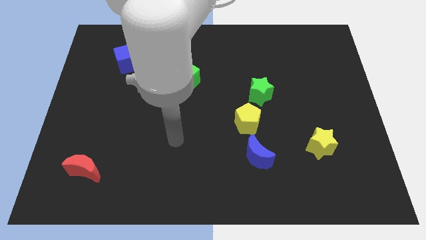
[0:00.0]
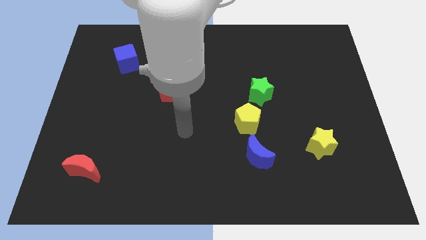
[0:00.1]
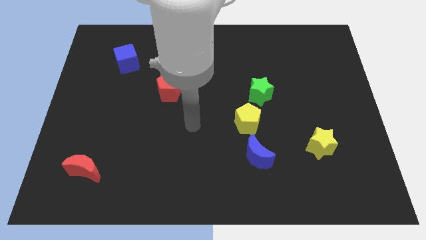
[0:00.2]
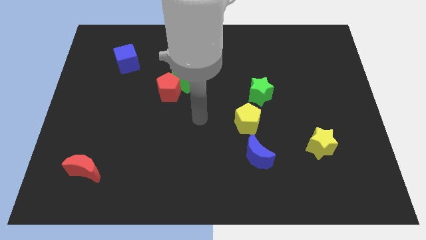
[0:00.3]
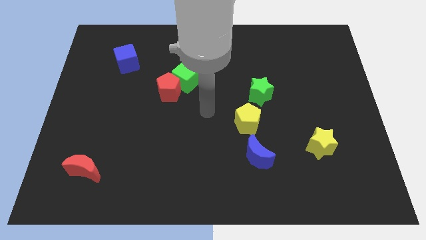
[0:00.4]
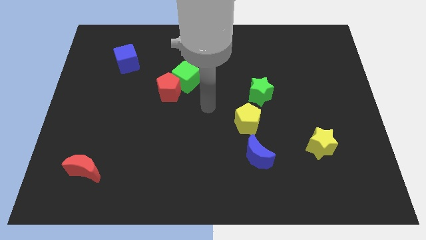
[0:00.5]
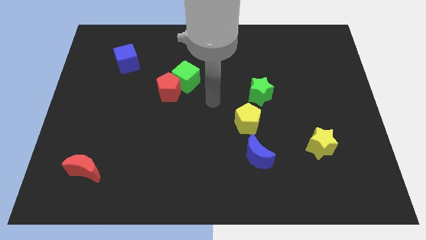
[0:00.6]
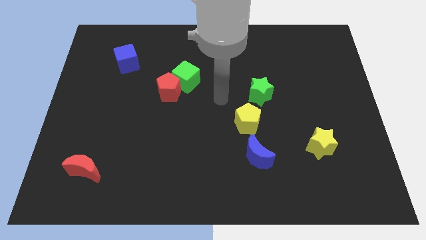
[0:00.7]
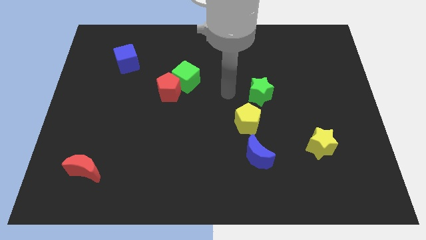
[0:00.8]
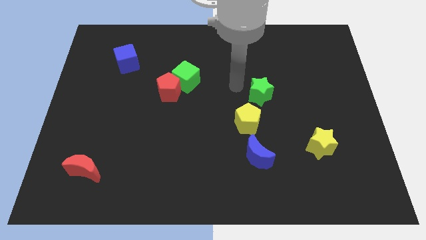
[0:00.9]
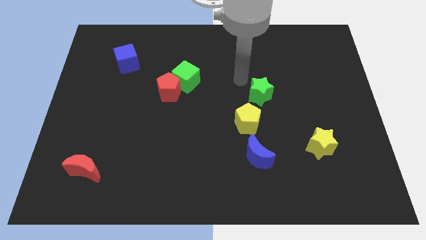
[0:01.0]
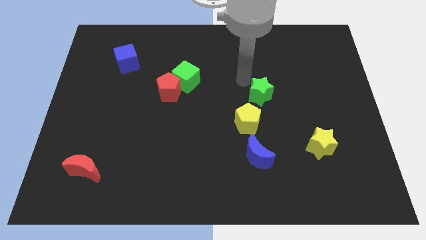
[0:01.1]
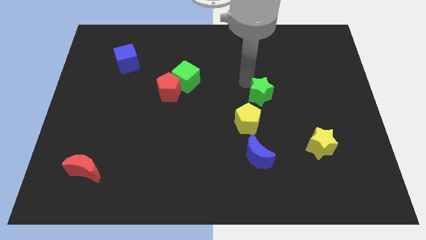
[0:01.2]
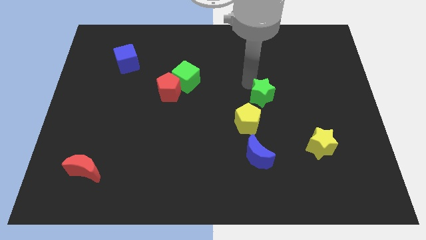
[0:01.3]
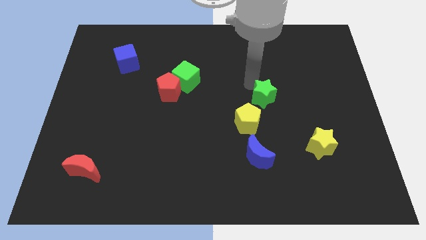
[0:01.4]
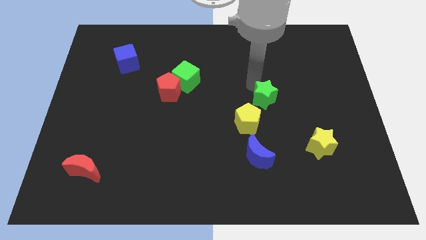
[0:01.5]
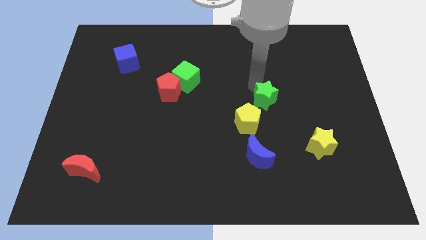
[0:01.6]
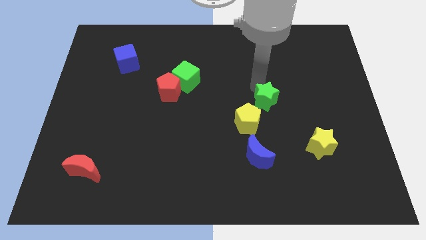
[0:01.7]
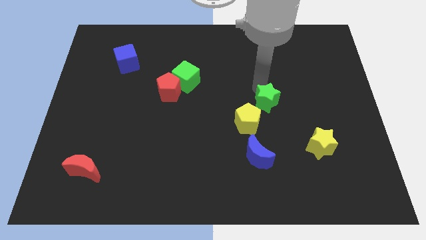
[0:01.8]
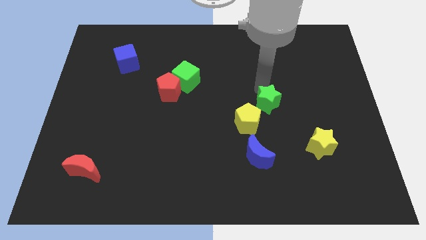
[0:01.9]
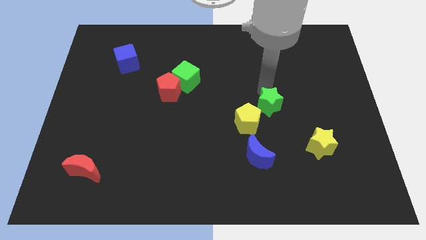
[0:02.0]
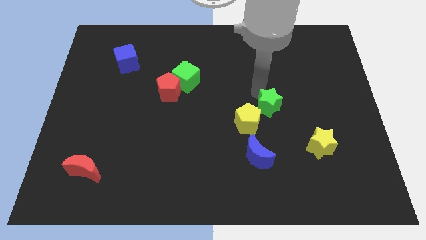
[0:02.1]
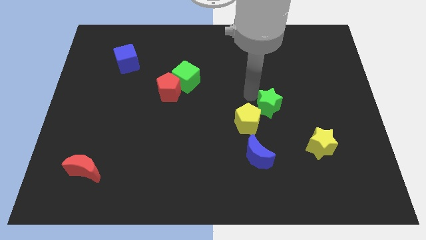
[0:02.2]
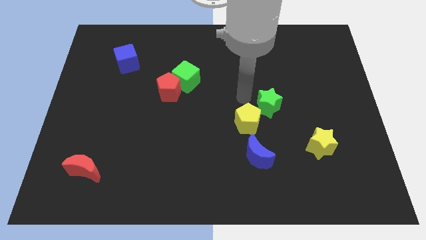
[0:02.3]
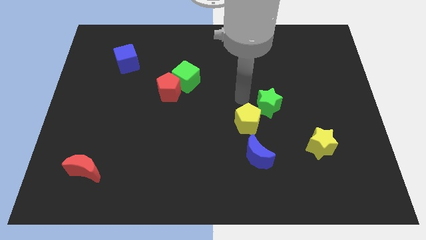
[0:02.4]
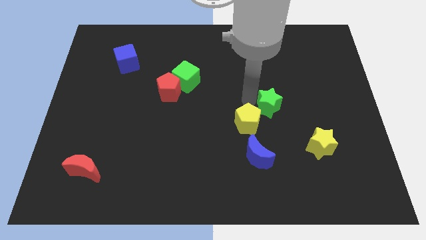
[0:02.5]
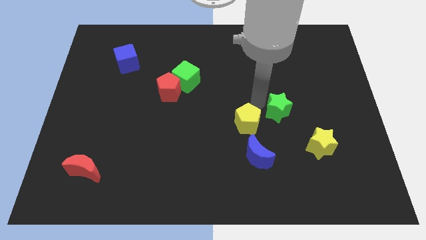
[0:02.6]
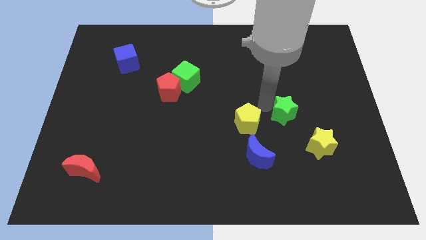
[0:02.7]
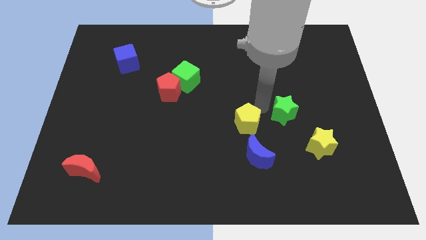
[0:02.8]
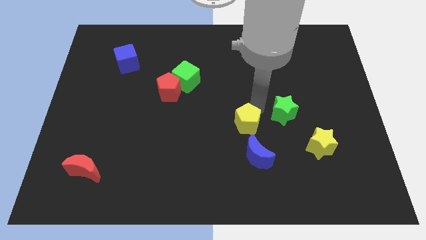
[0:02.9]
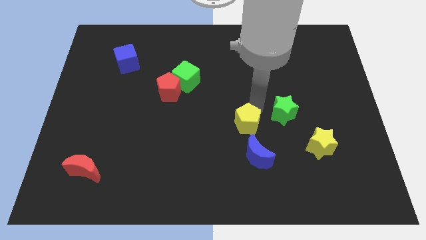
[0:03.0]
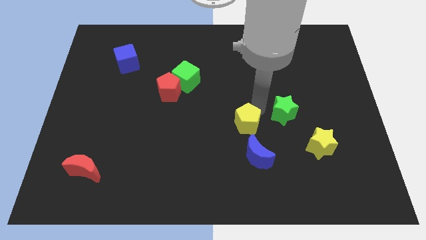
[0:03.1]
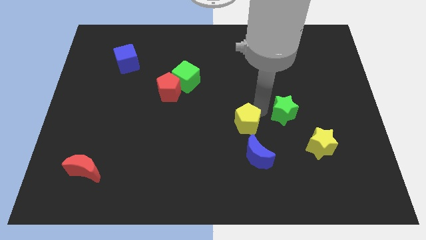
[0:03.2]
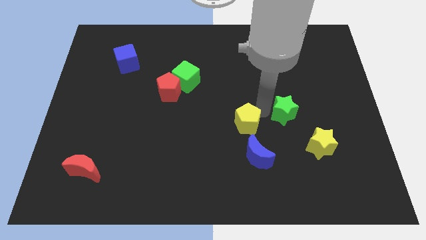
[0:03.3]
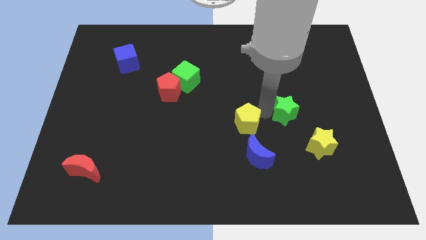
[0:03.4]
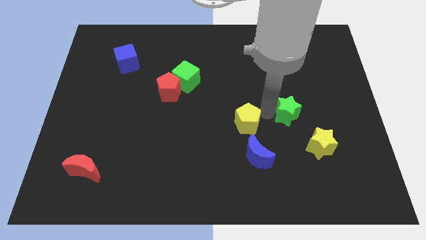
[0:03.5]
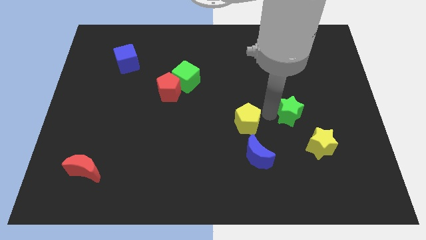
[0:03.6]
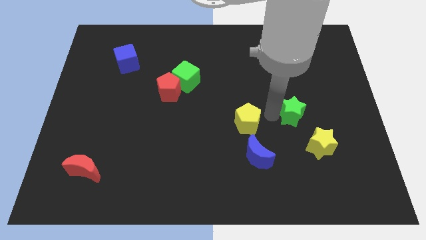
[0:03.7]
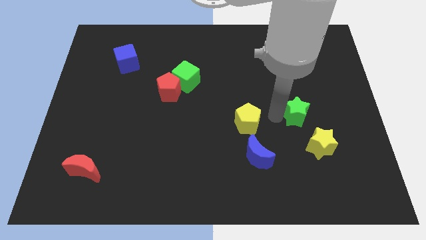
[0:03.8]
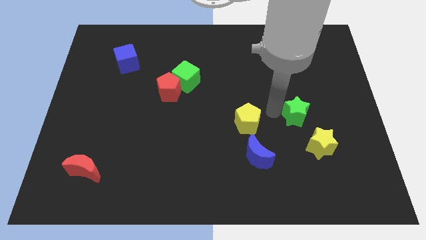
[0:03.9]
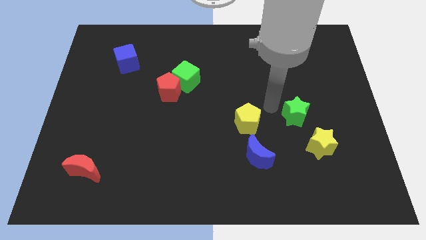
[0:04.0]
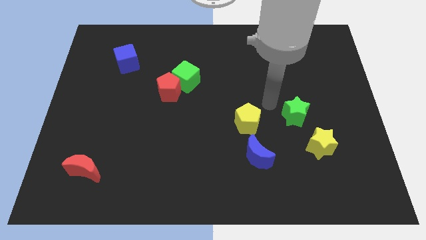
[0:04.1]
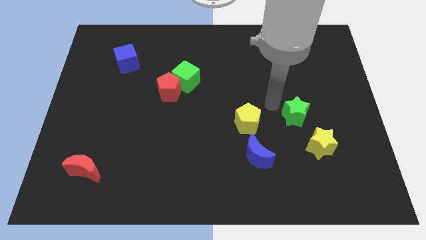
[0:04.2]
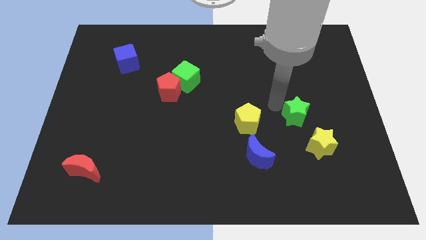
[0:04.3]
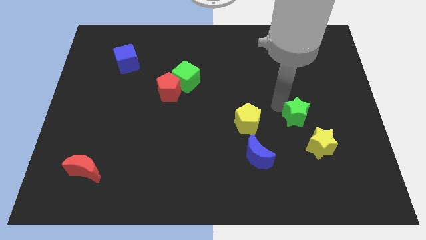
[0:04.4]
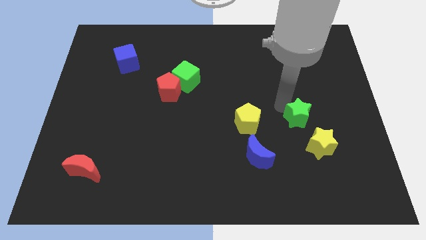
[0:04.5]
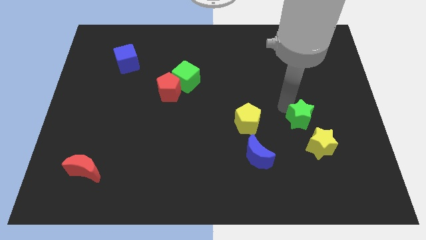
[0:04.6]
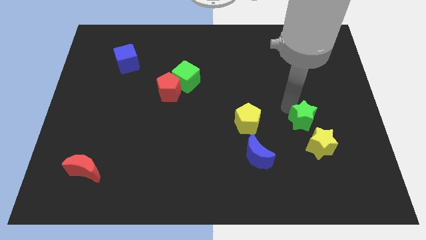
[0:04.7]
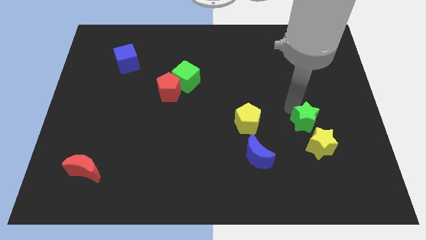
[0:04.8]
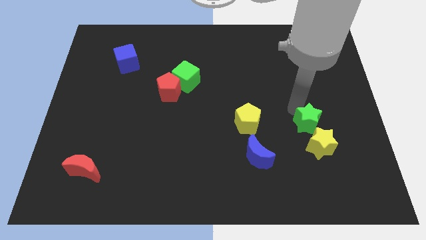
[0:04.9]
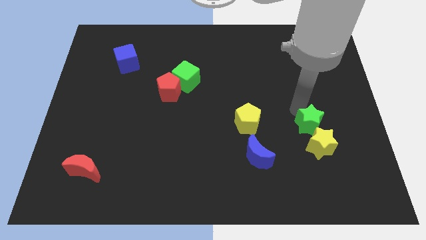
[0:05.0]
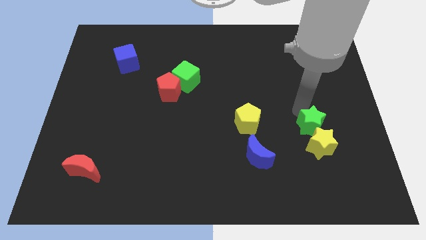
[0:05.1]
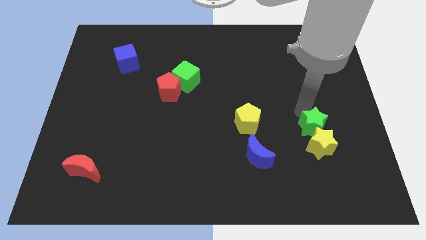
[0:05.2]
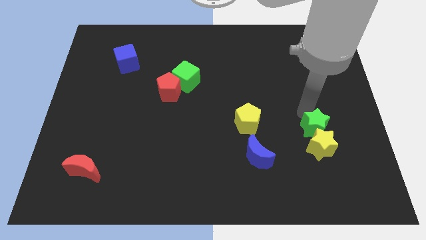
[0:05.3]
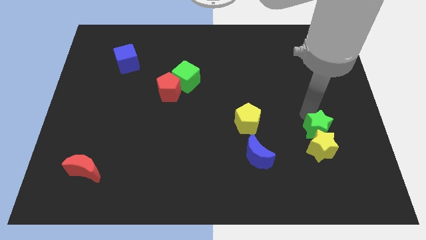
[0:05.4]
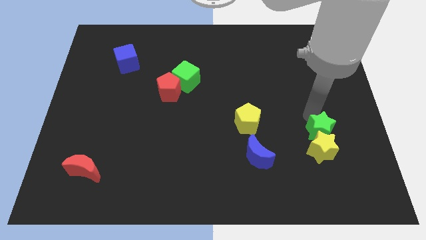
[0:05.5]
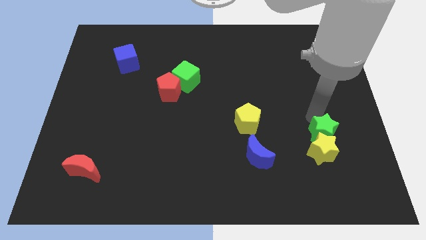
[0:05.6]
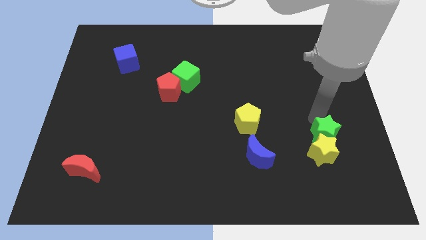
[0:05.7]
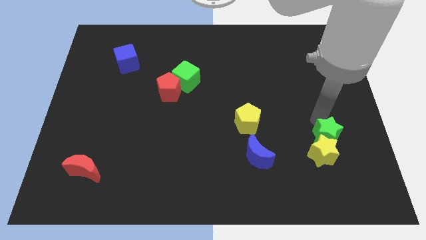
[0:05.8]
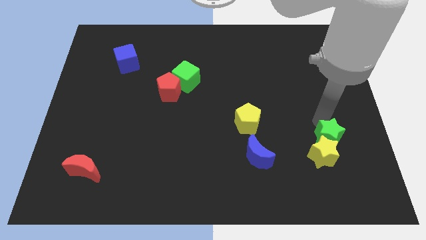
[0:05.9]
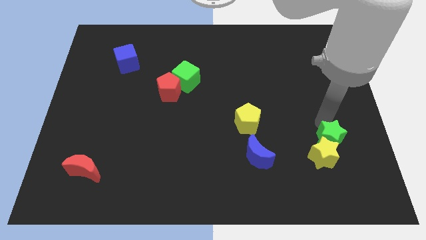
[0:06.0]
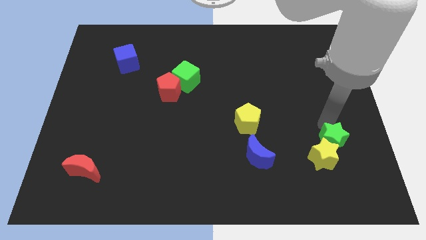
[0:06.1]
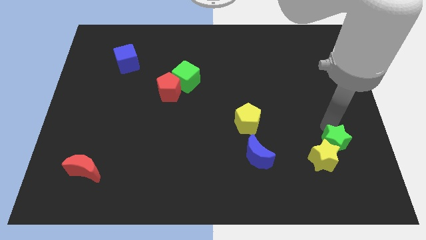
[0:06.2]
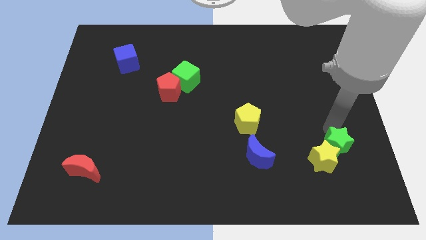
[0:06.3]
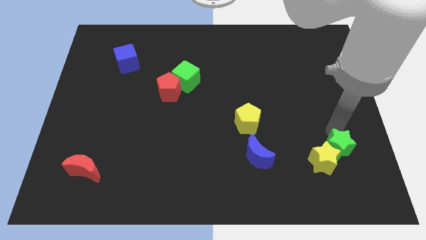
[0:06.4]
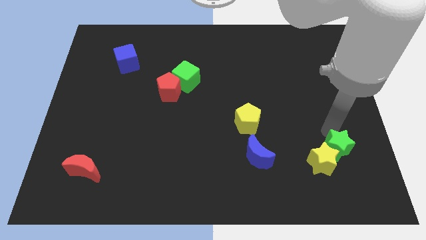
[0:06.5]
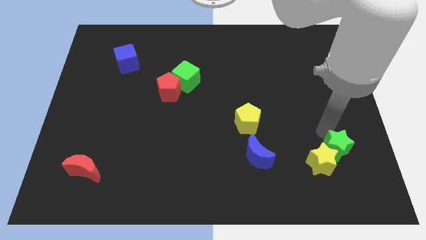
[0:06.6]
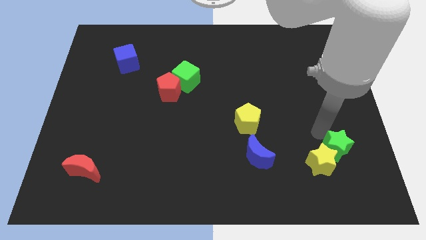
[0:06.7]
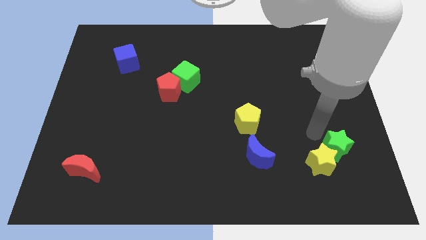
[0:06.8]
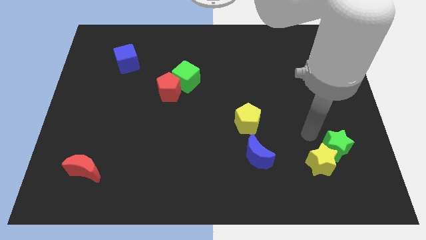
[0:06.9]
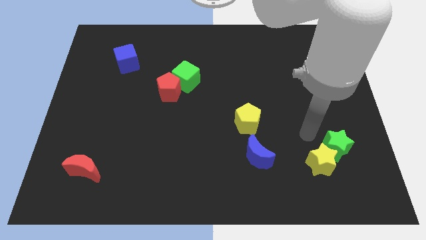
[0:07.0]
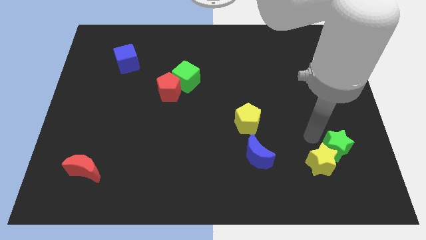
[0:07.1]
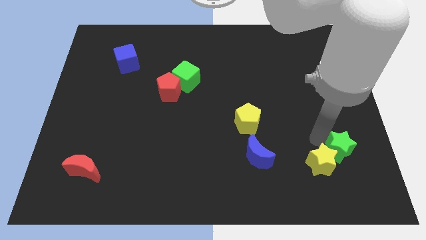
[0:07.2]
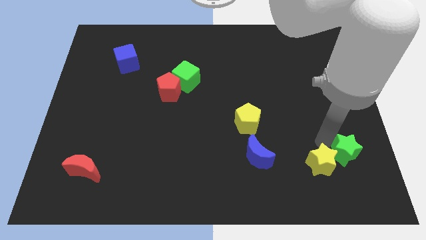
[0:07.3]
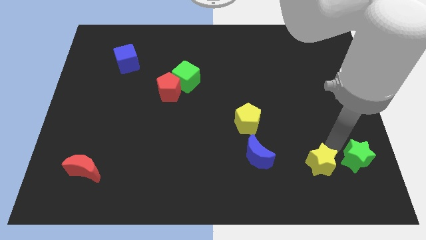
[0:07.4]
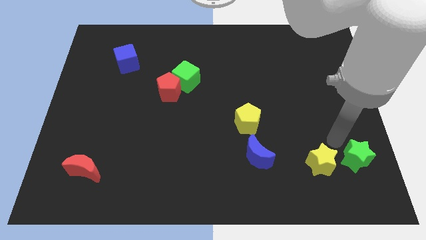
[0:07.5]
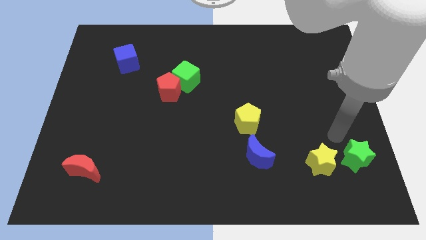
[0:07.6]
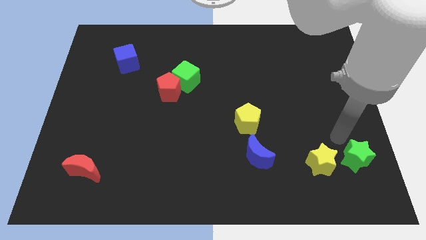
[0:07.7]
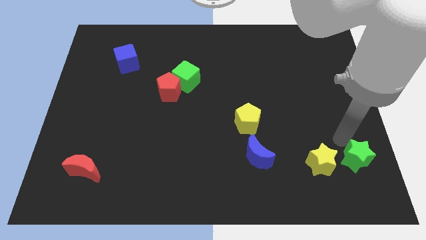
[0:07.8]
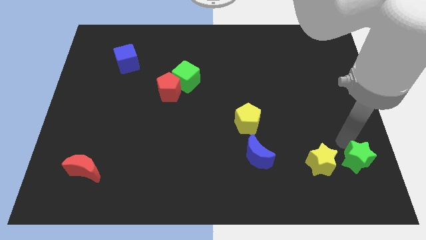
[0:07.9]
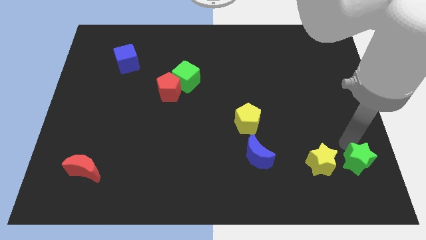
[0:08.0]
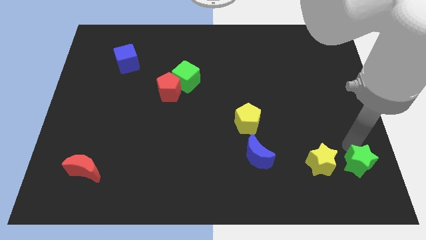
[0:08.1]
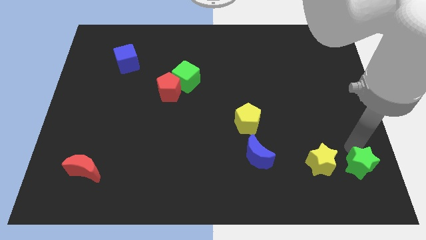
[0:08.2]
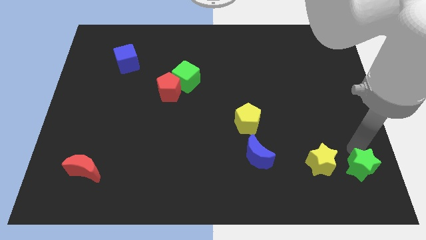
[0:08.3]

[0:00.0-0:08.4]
slide the green star to the bottom right of the board
